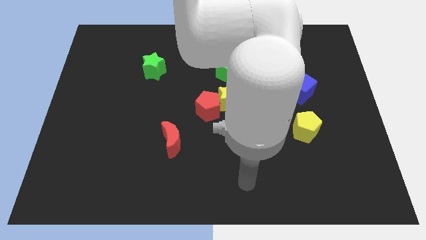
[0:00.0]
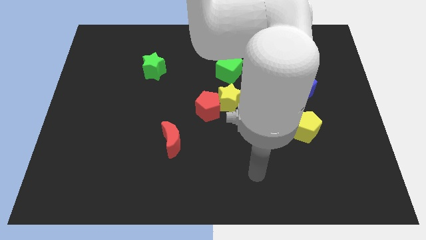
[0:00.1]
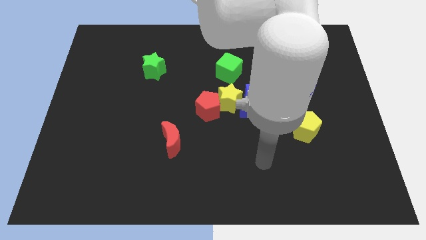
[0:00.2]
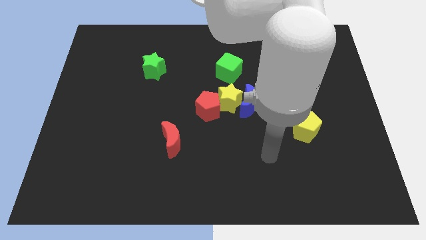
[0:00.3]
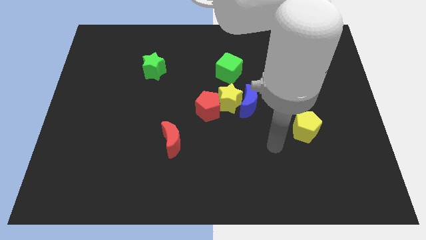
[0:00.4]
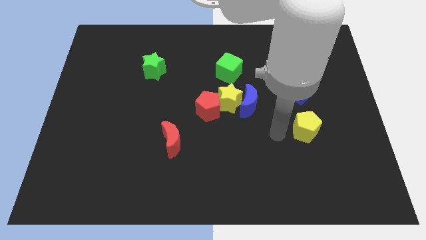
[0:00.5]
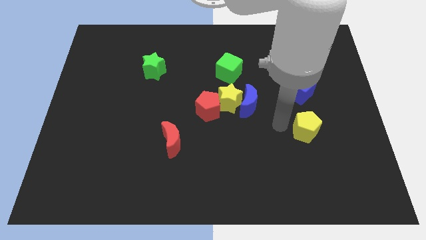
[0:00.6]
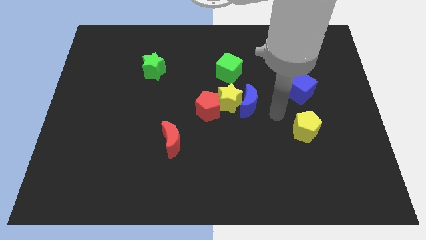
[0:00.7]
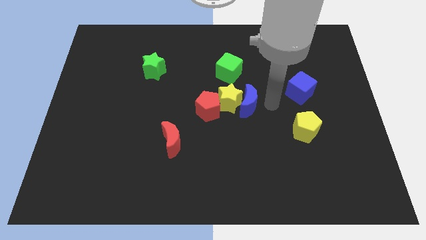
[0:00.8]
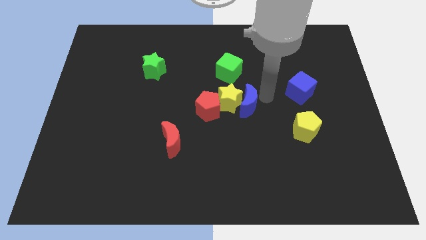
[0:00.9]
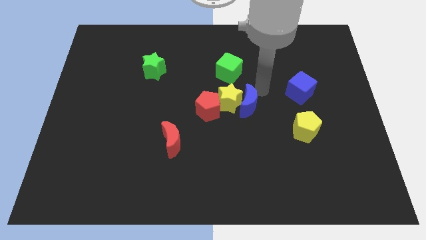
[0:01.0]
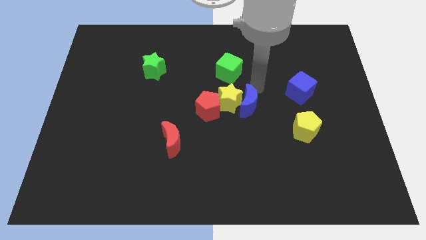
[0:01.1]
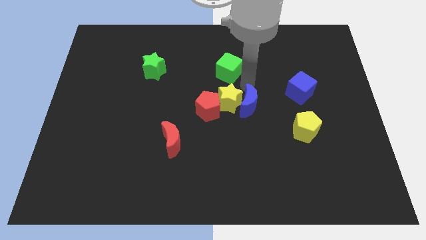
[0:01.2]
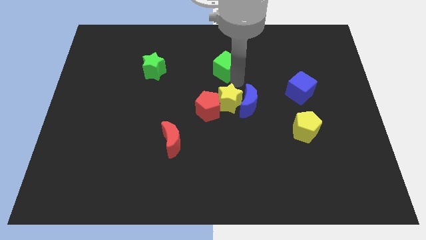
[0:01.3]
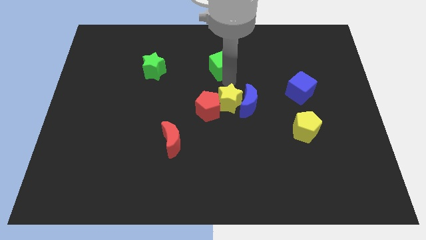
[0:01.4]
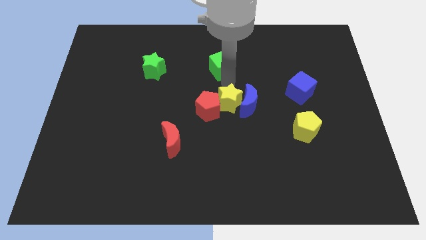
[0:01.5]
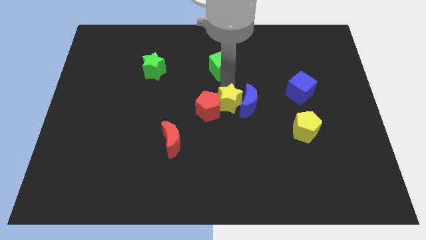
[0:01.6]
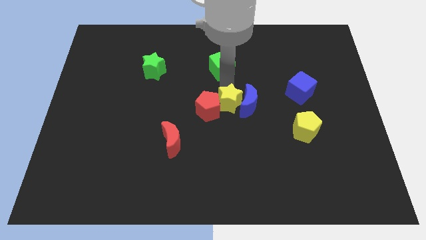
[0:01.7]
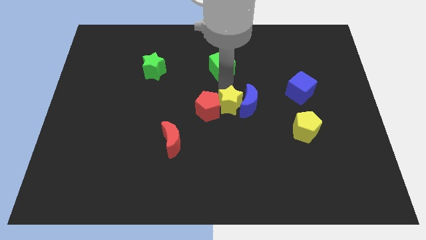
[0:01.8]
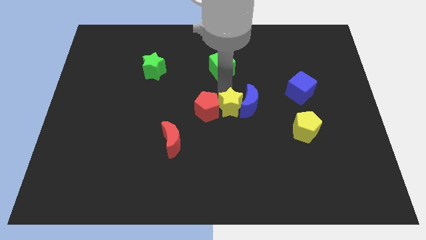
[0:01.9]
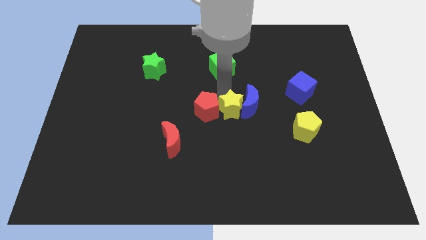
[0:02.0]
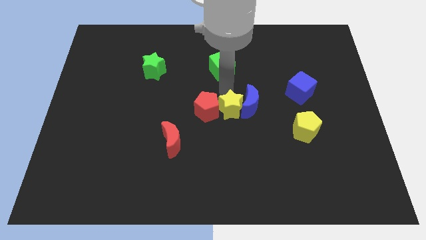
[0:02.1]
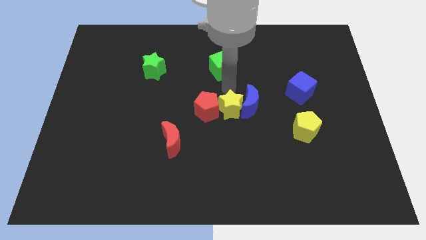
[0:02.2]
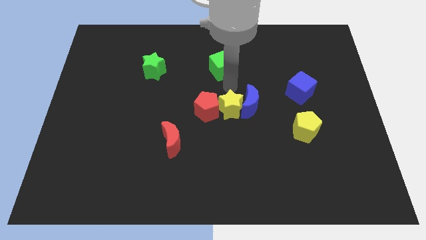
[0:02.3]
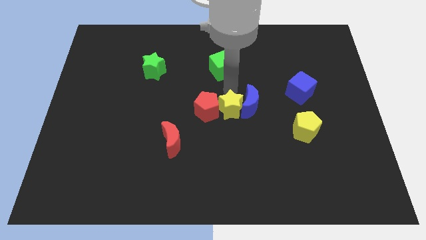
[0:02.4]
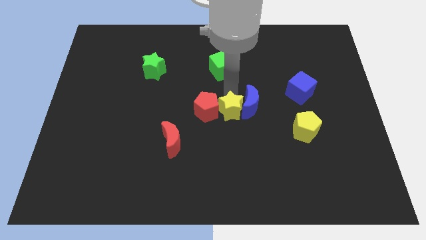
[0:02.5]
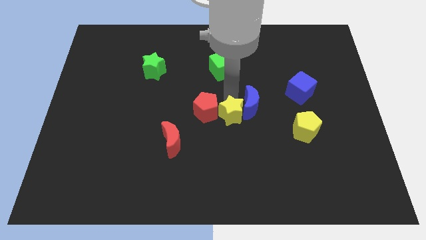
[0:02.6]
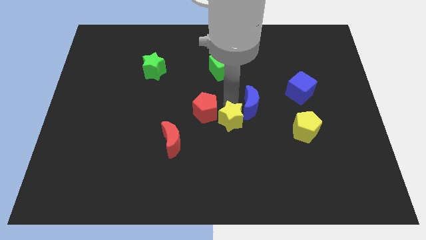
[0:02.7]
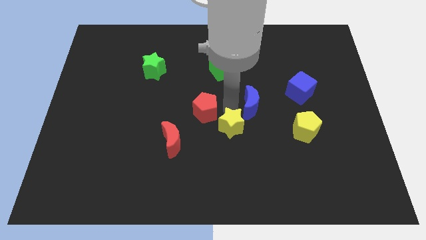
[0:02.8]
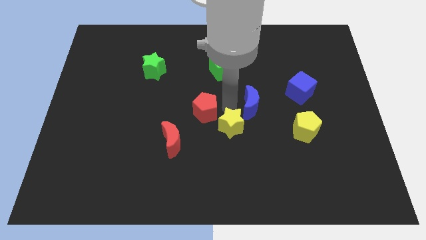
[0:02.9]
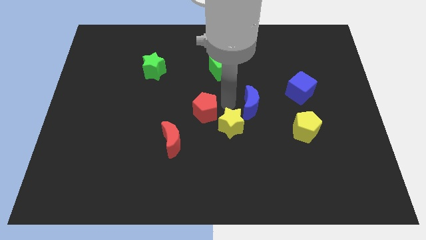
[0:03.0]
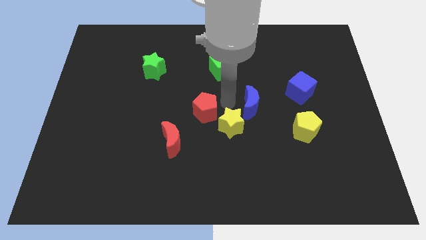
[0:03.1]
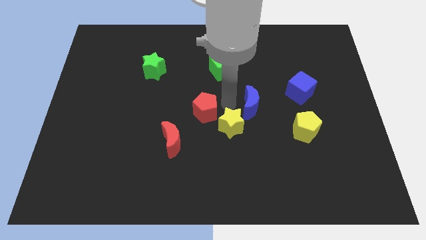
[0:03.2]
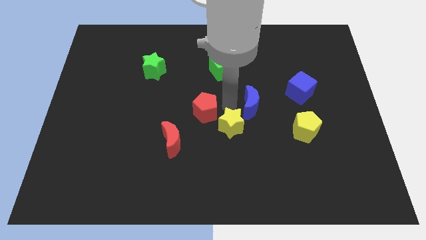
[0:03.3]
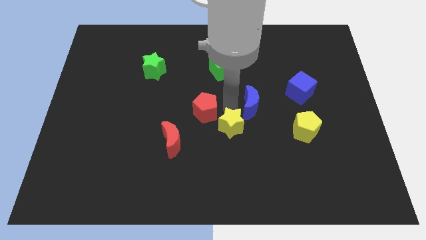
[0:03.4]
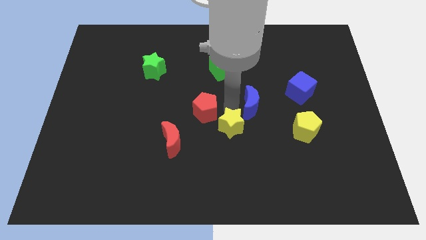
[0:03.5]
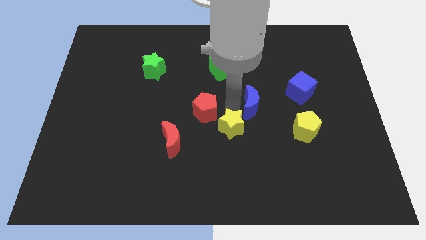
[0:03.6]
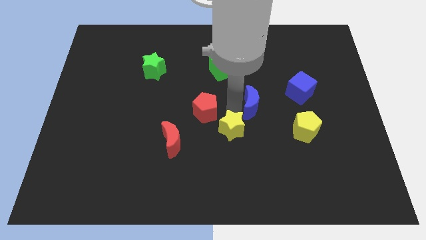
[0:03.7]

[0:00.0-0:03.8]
separate the yellow star from the group of blocks

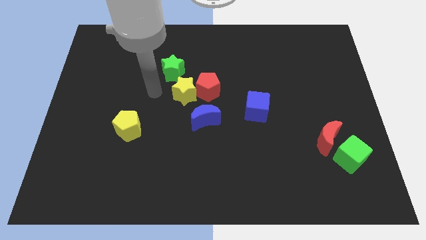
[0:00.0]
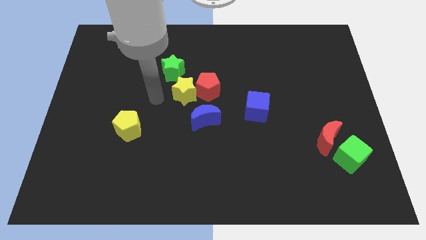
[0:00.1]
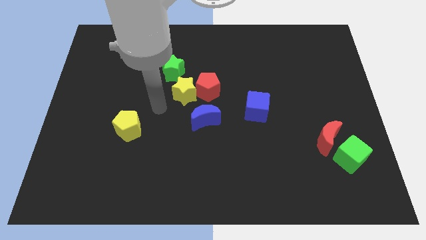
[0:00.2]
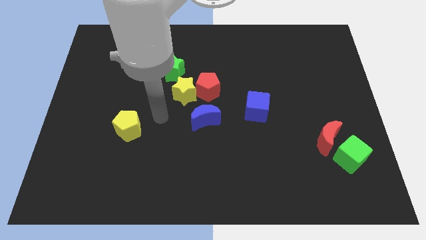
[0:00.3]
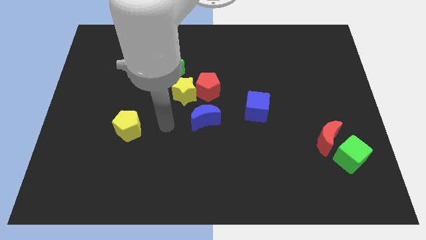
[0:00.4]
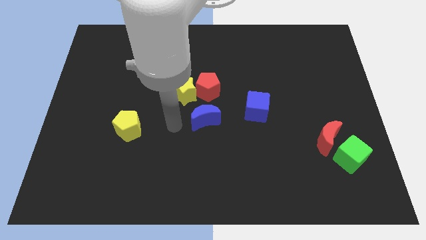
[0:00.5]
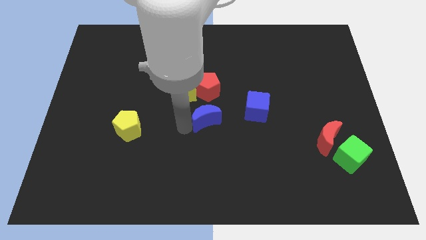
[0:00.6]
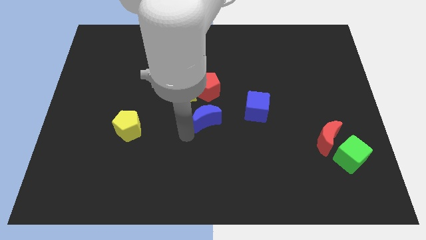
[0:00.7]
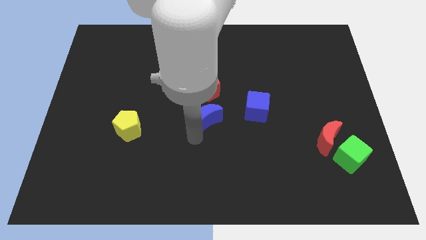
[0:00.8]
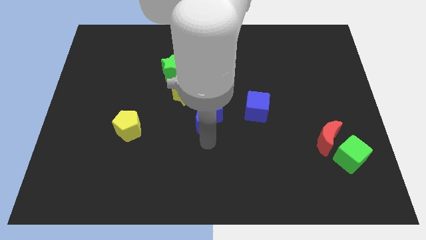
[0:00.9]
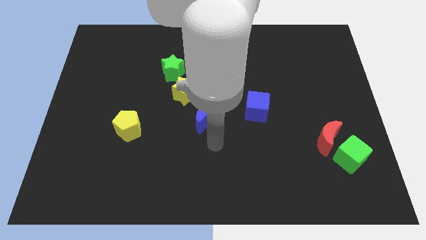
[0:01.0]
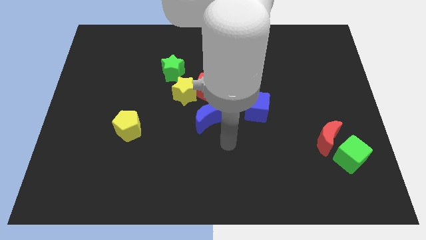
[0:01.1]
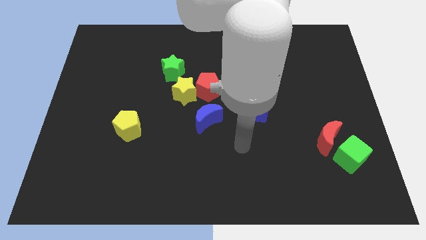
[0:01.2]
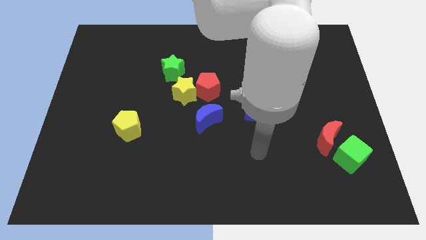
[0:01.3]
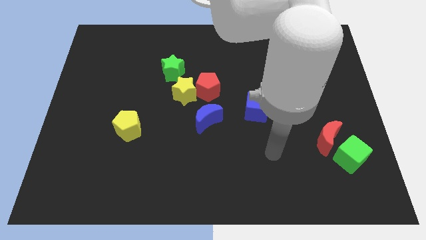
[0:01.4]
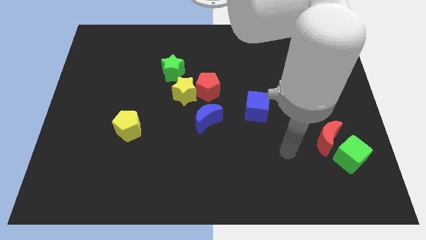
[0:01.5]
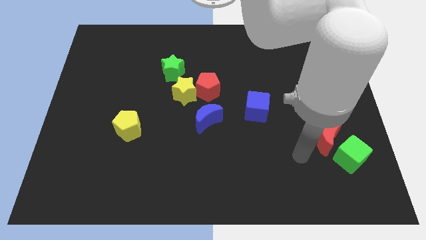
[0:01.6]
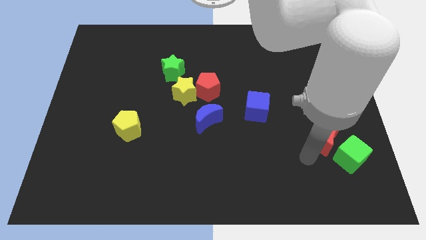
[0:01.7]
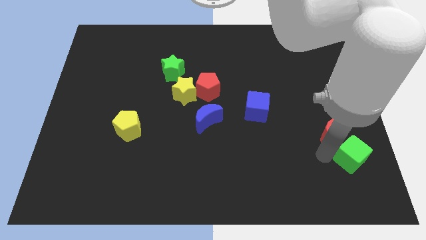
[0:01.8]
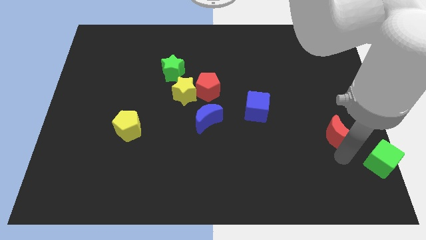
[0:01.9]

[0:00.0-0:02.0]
move the red moon away from the green cube

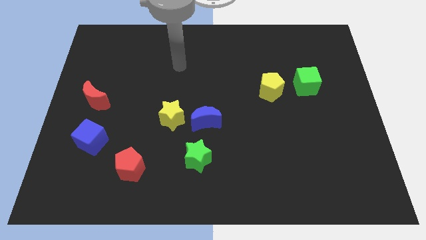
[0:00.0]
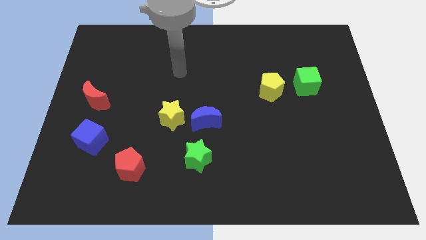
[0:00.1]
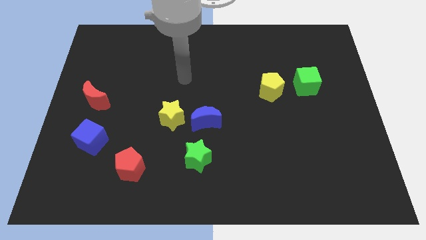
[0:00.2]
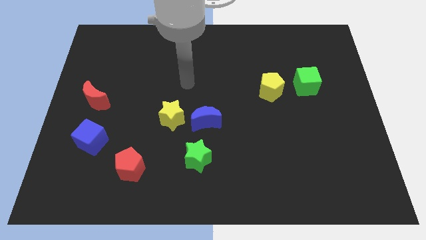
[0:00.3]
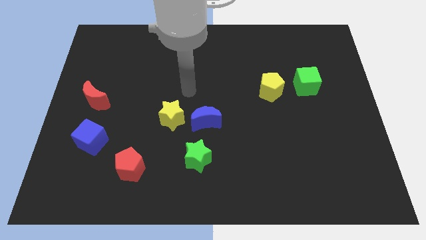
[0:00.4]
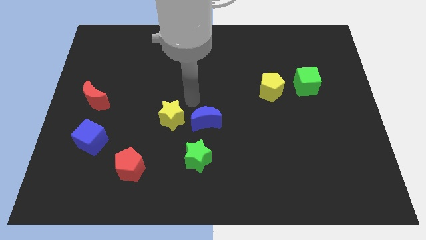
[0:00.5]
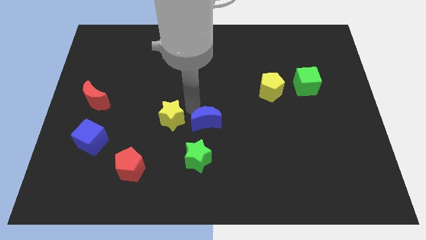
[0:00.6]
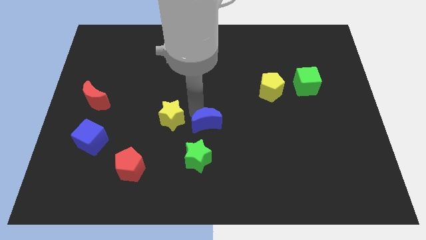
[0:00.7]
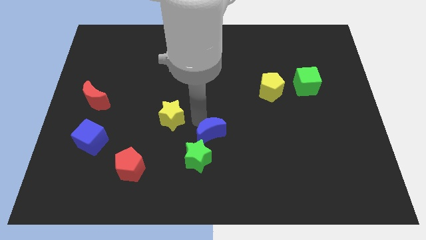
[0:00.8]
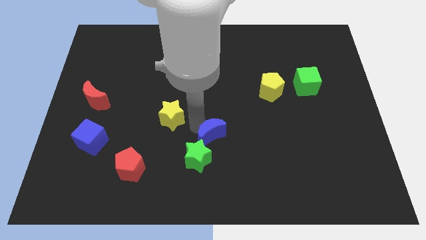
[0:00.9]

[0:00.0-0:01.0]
pull the yellow star apart from the blue moon

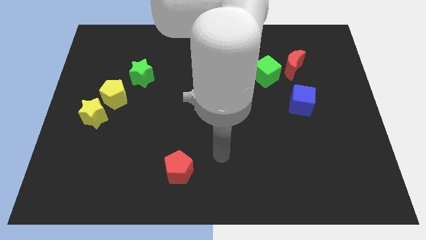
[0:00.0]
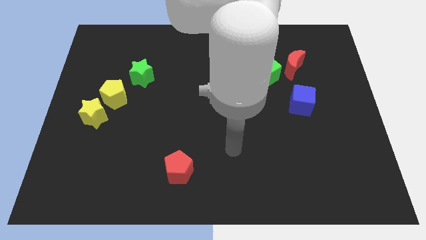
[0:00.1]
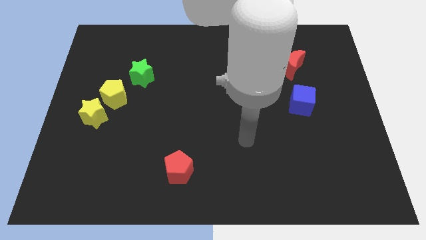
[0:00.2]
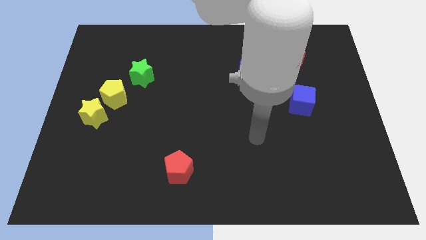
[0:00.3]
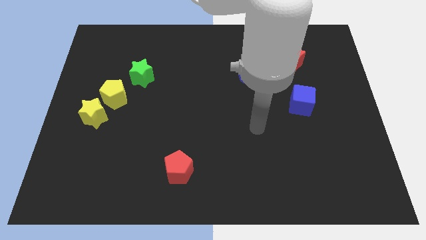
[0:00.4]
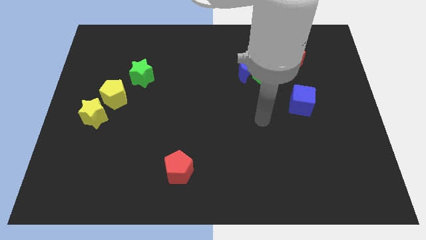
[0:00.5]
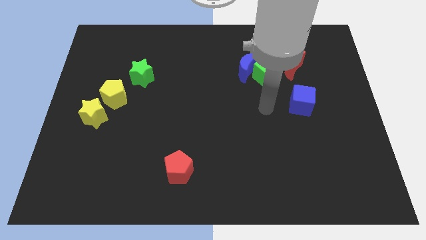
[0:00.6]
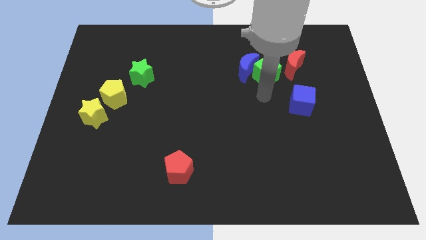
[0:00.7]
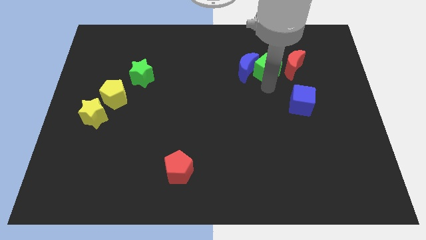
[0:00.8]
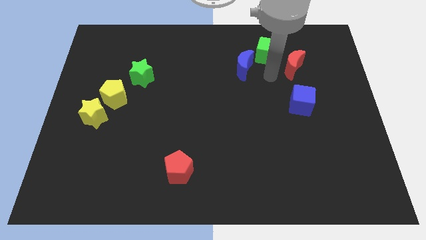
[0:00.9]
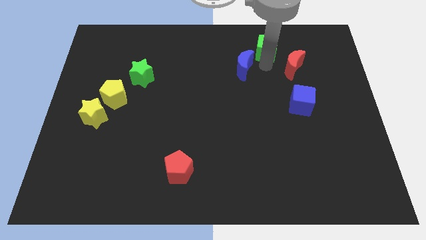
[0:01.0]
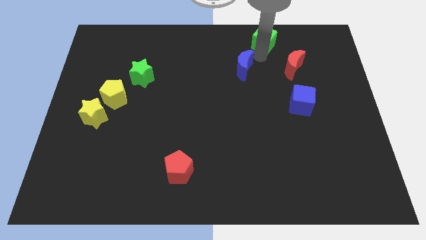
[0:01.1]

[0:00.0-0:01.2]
separate the blue moon from the green cube

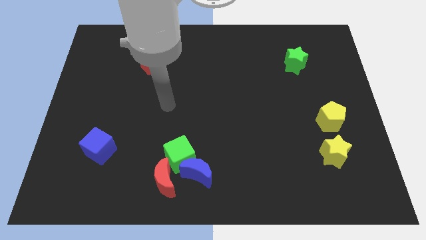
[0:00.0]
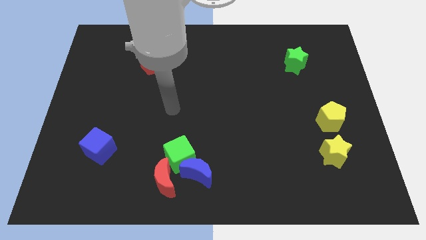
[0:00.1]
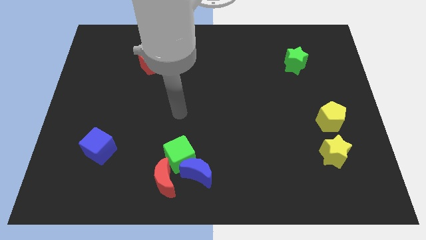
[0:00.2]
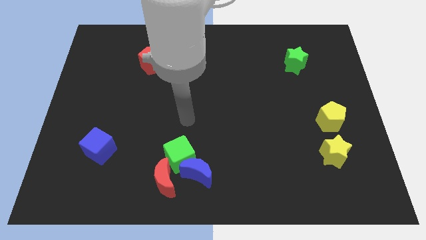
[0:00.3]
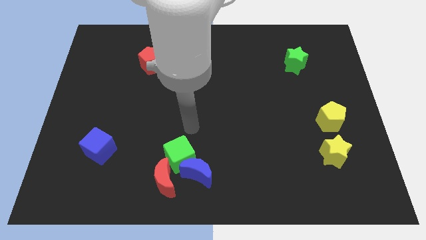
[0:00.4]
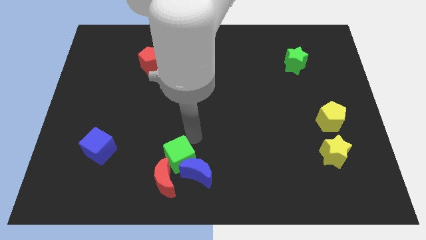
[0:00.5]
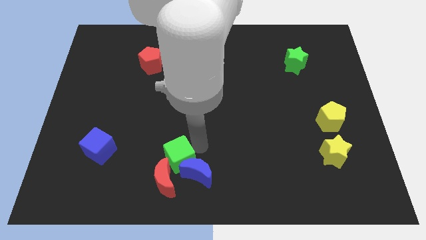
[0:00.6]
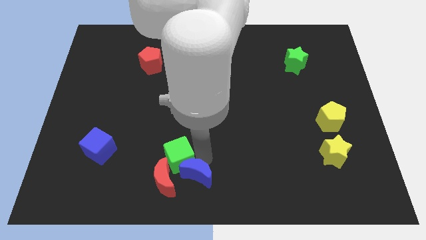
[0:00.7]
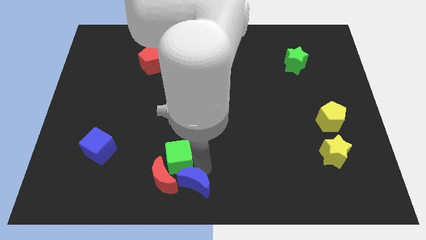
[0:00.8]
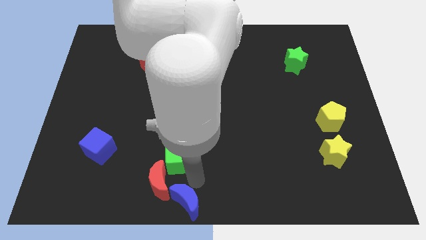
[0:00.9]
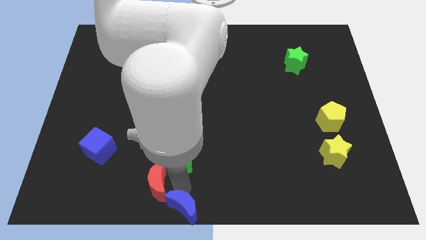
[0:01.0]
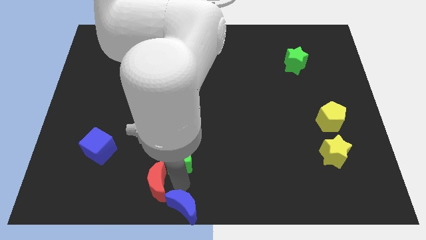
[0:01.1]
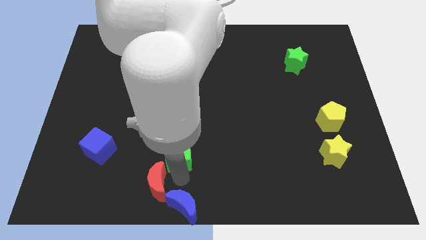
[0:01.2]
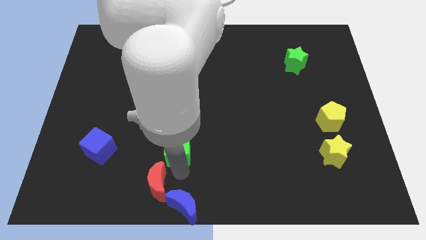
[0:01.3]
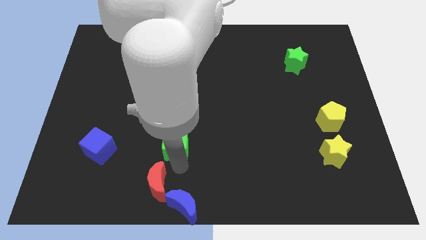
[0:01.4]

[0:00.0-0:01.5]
pull the green cube apart from the blue moon and red moon
